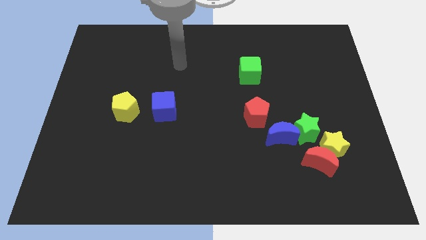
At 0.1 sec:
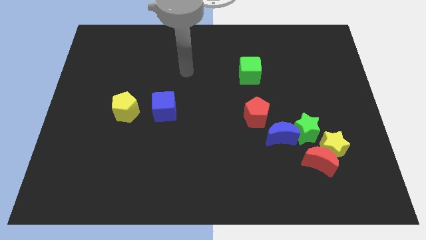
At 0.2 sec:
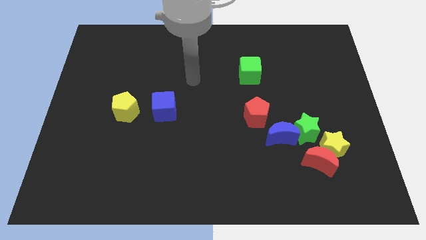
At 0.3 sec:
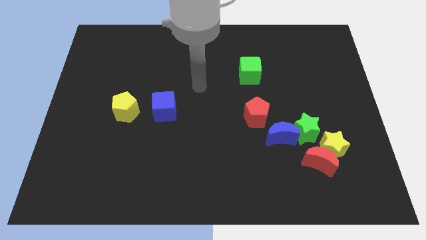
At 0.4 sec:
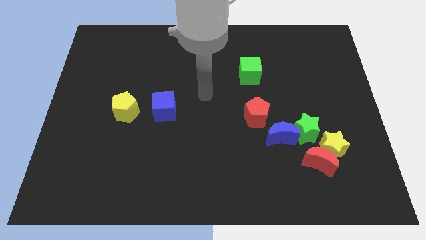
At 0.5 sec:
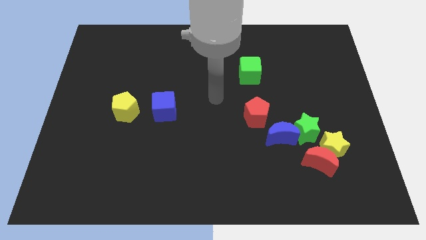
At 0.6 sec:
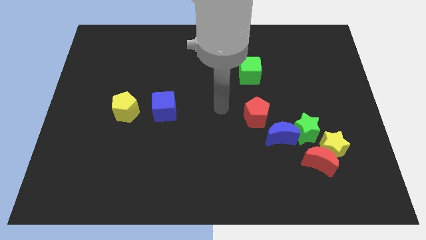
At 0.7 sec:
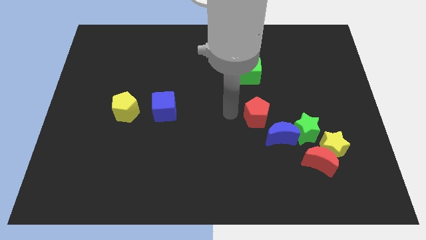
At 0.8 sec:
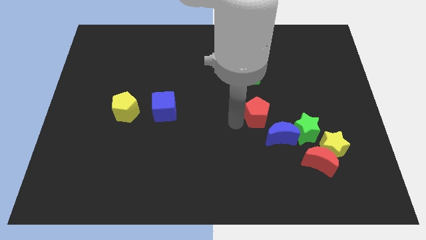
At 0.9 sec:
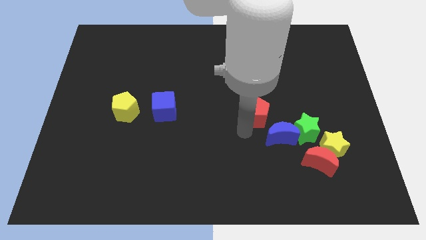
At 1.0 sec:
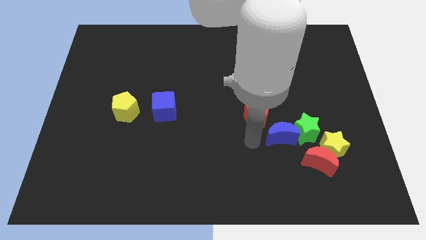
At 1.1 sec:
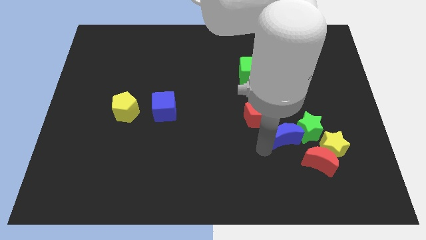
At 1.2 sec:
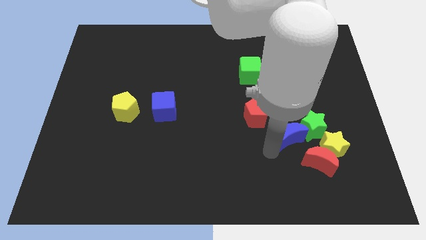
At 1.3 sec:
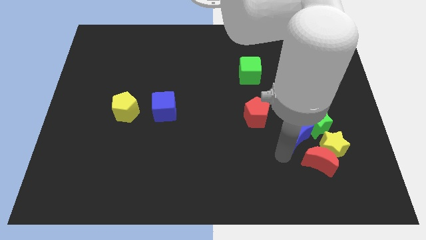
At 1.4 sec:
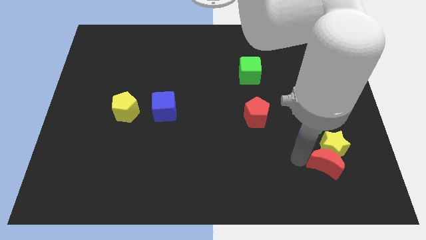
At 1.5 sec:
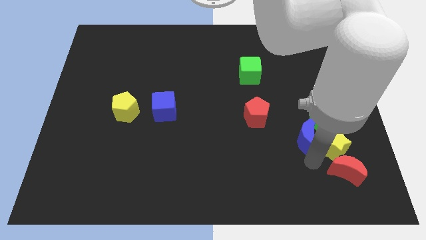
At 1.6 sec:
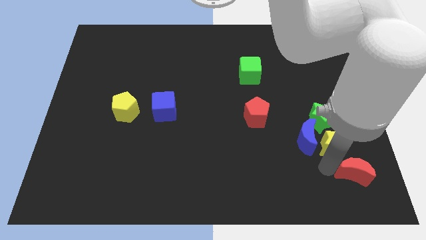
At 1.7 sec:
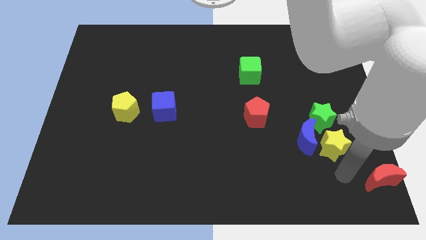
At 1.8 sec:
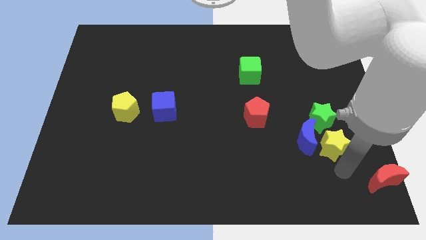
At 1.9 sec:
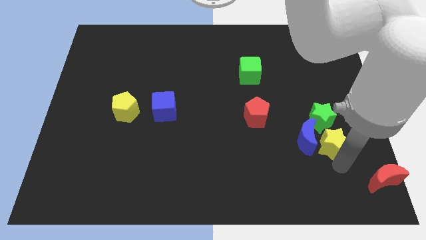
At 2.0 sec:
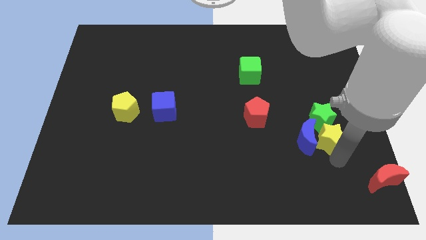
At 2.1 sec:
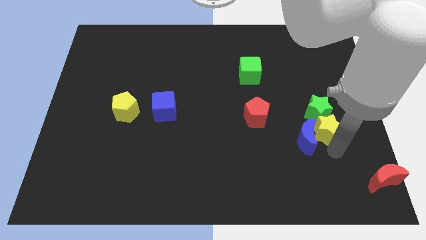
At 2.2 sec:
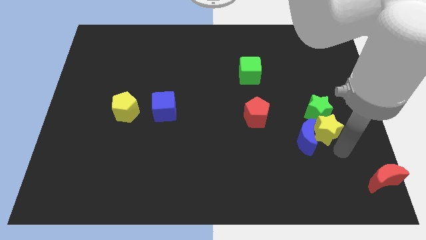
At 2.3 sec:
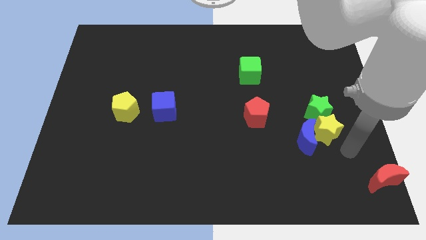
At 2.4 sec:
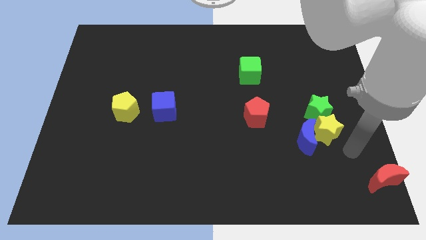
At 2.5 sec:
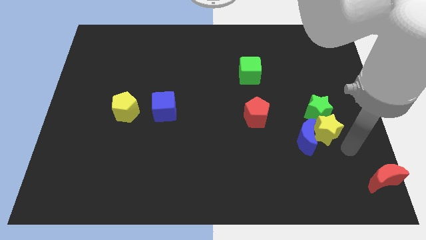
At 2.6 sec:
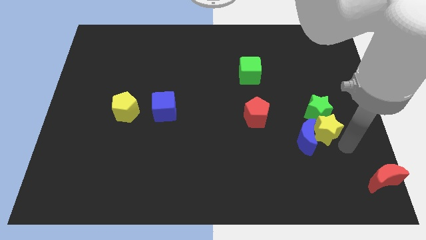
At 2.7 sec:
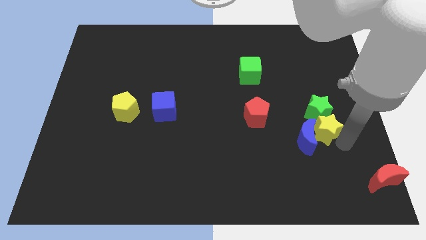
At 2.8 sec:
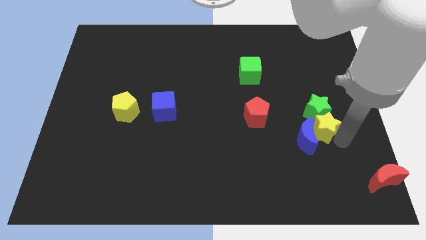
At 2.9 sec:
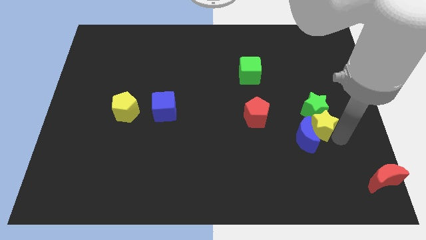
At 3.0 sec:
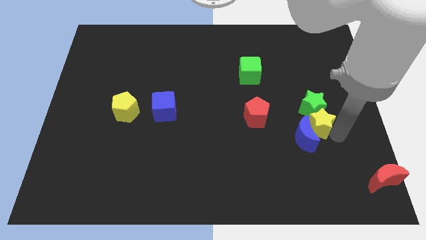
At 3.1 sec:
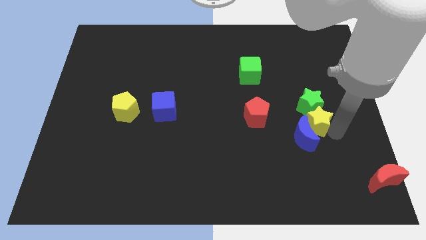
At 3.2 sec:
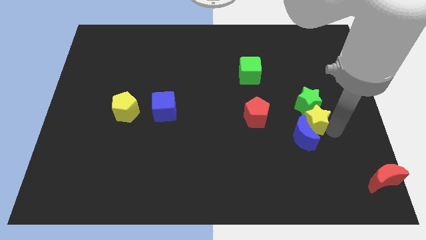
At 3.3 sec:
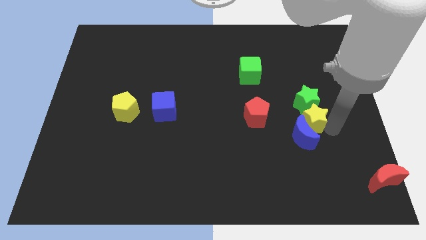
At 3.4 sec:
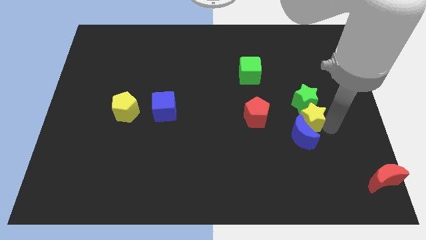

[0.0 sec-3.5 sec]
slightly push the yellow star upwards and left

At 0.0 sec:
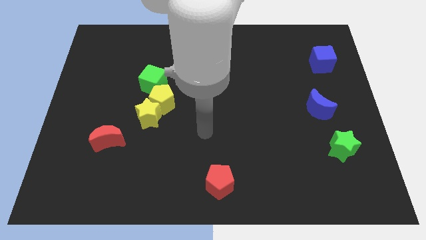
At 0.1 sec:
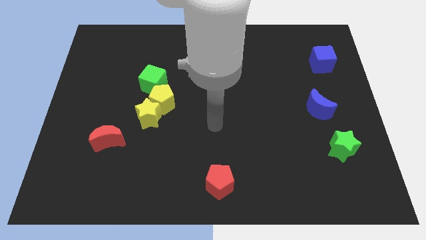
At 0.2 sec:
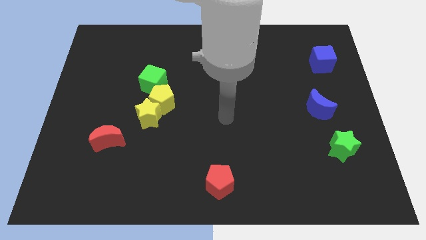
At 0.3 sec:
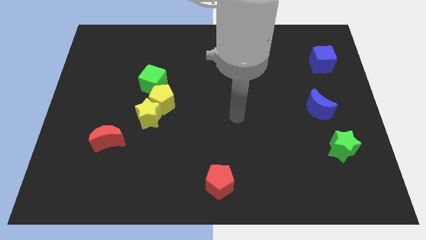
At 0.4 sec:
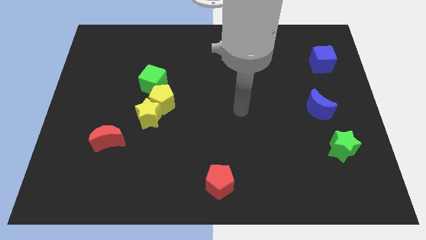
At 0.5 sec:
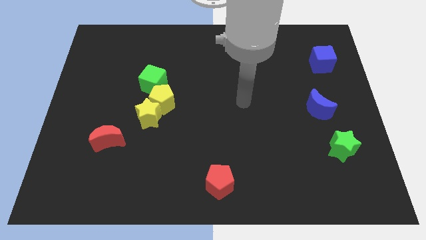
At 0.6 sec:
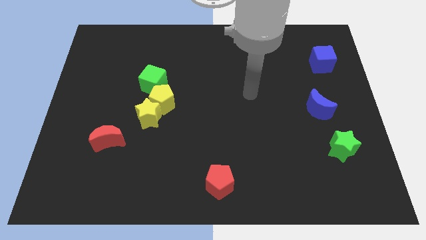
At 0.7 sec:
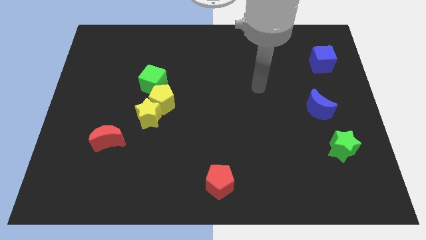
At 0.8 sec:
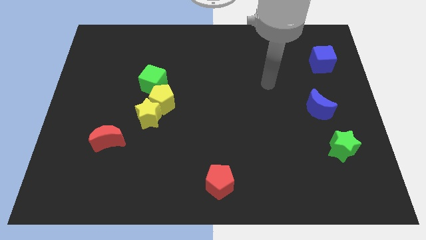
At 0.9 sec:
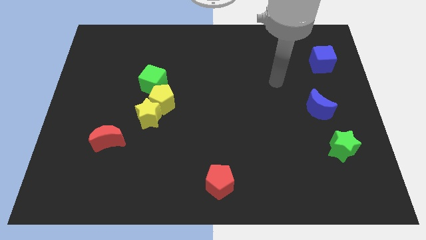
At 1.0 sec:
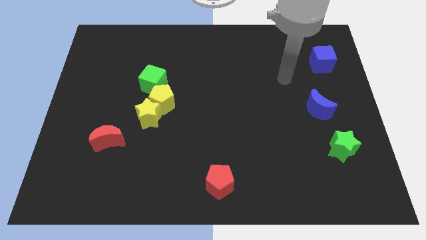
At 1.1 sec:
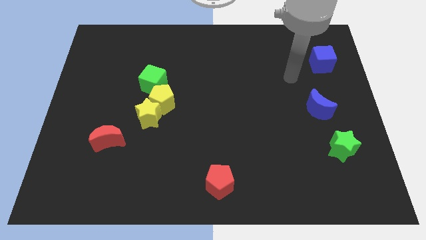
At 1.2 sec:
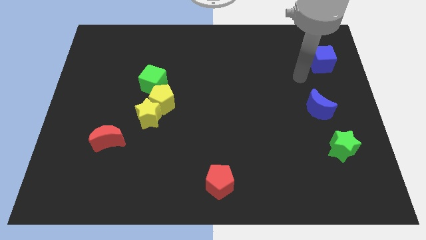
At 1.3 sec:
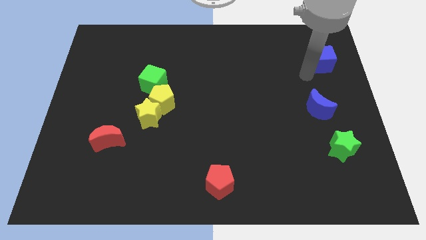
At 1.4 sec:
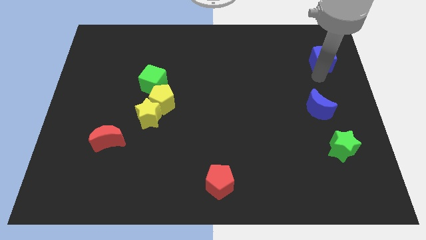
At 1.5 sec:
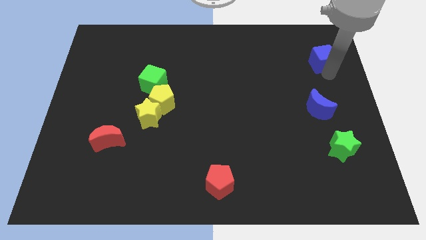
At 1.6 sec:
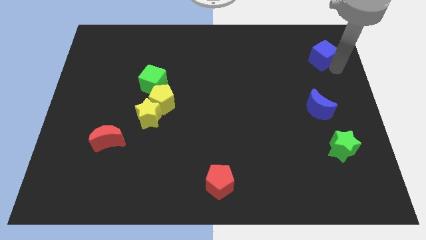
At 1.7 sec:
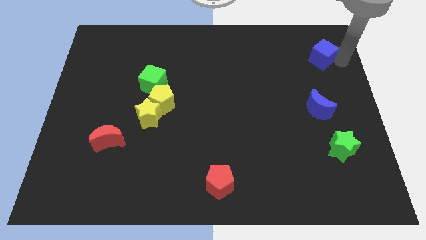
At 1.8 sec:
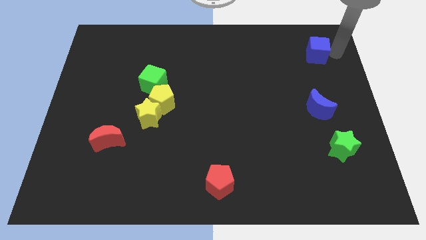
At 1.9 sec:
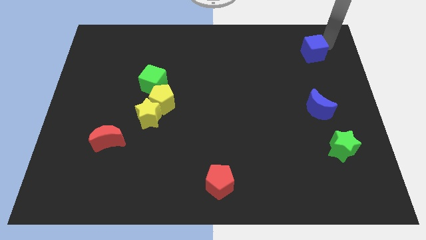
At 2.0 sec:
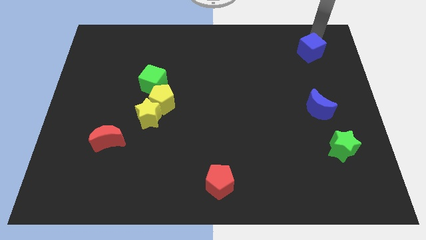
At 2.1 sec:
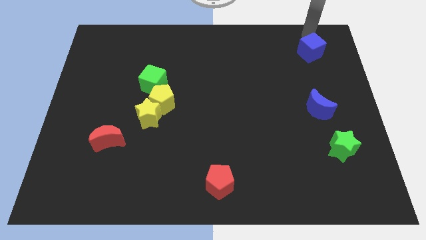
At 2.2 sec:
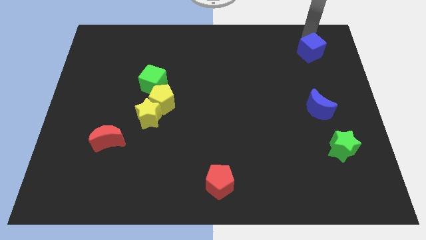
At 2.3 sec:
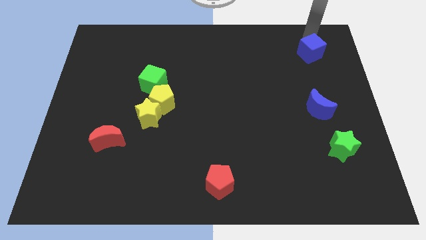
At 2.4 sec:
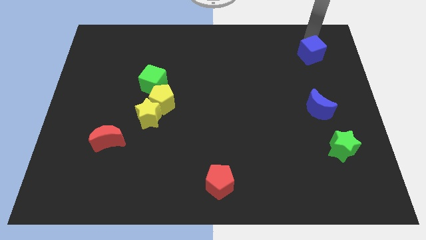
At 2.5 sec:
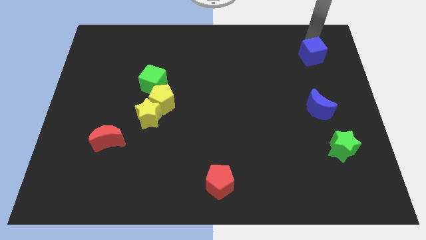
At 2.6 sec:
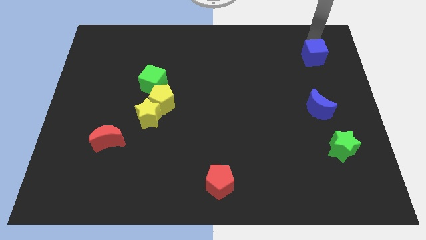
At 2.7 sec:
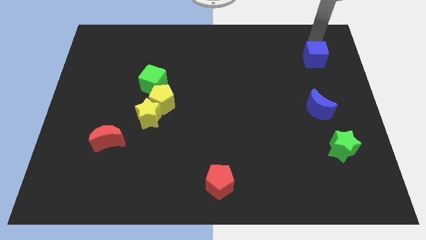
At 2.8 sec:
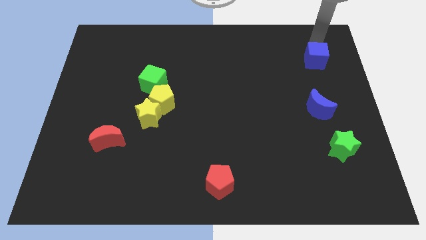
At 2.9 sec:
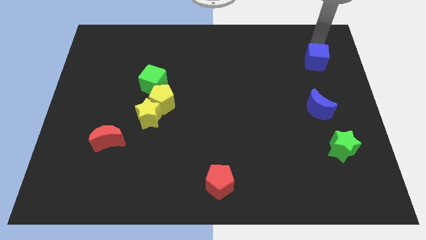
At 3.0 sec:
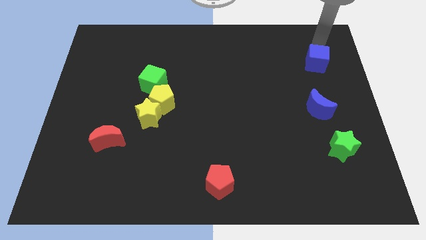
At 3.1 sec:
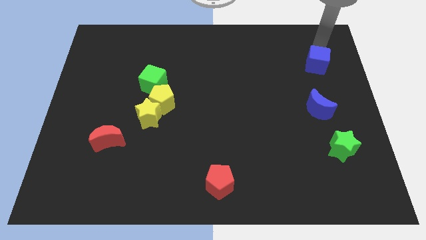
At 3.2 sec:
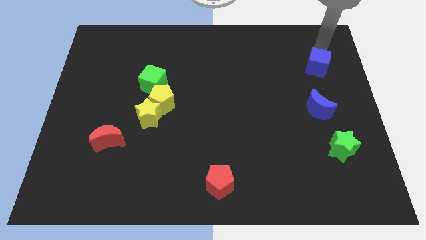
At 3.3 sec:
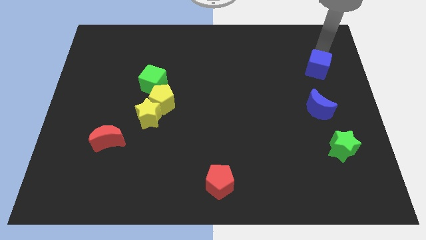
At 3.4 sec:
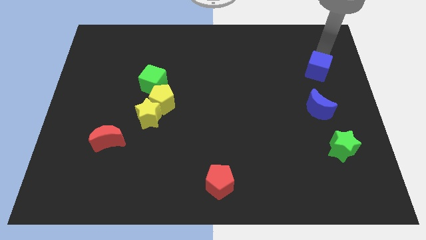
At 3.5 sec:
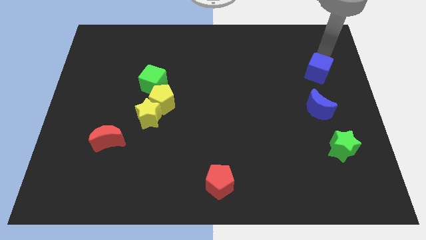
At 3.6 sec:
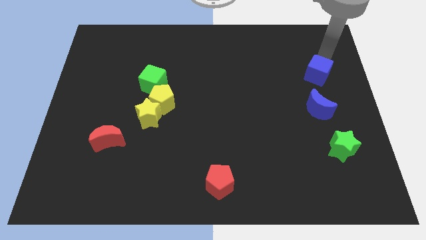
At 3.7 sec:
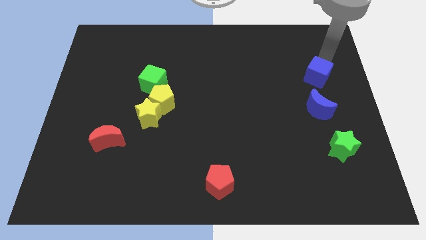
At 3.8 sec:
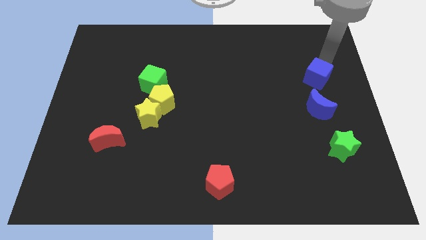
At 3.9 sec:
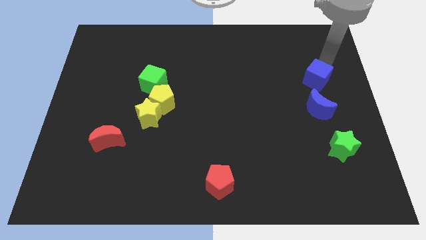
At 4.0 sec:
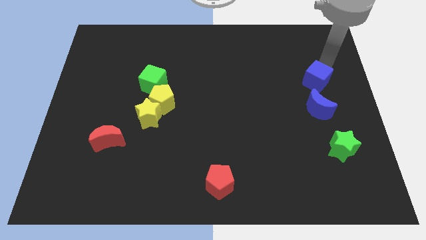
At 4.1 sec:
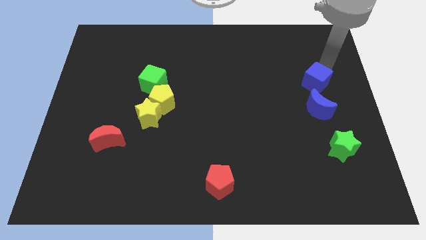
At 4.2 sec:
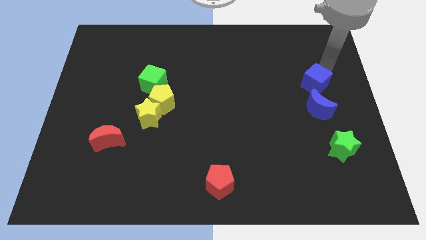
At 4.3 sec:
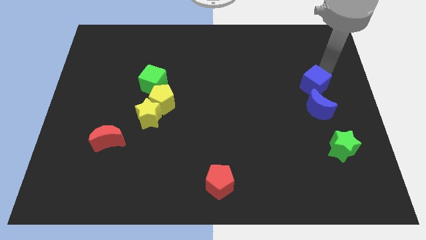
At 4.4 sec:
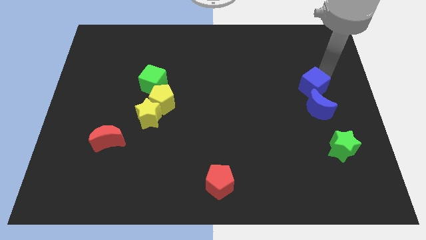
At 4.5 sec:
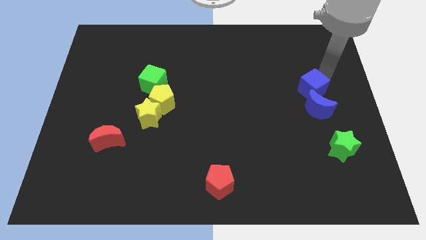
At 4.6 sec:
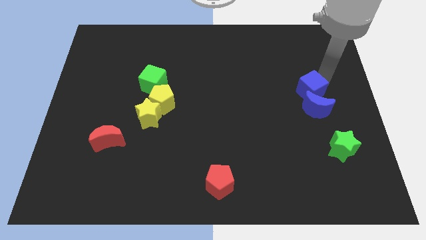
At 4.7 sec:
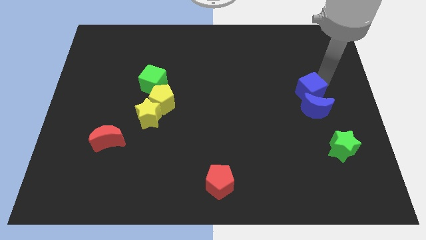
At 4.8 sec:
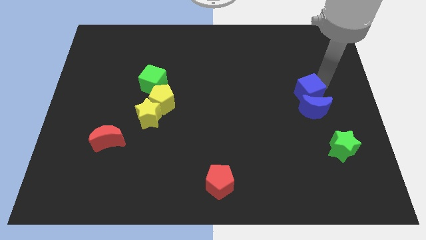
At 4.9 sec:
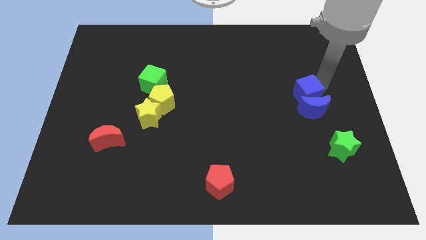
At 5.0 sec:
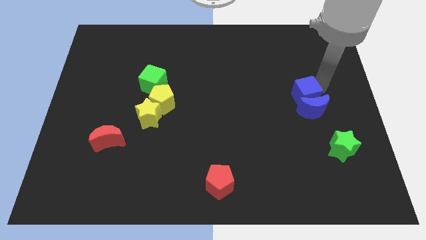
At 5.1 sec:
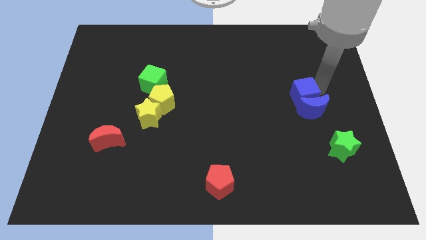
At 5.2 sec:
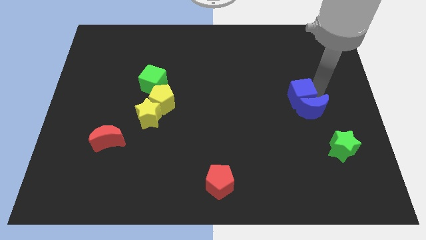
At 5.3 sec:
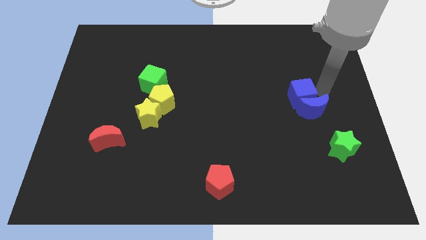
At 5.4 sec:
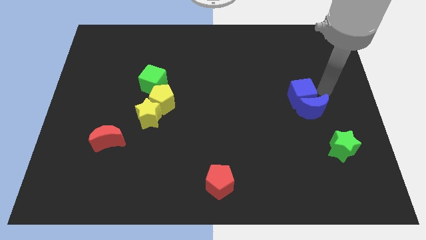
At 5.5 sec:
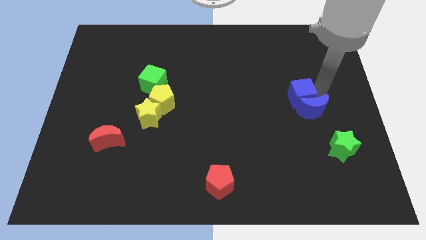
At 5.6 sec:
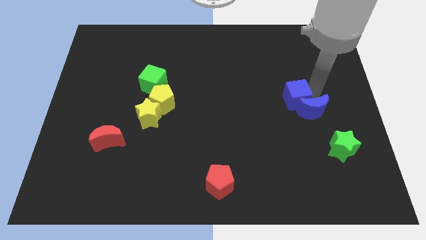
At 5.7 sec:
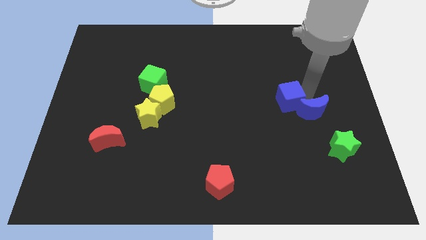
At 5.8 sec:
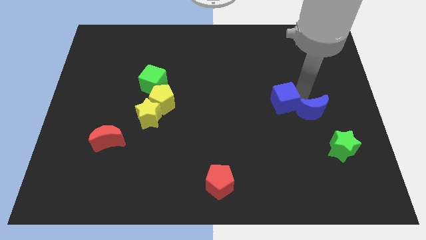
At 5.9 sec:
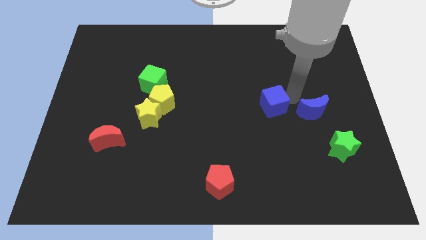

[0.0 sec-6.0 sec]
push the blue cube down and left diagonally
